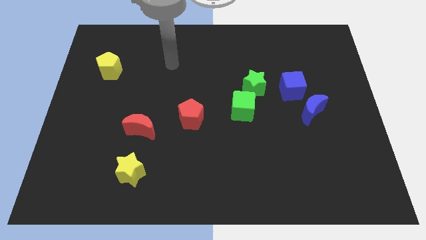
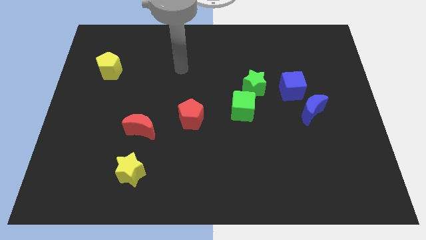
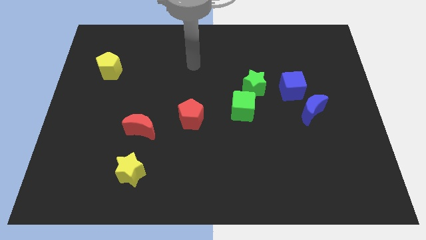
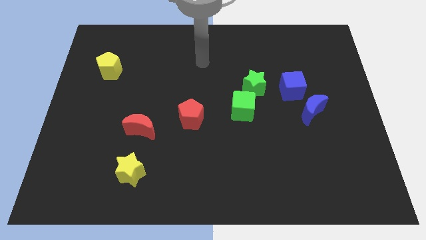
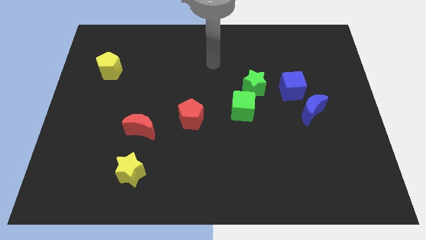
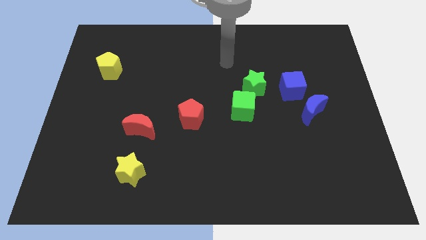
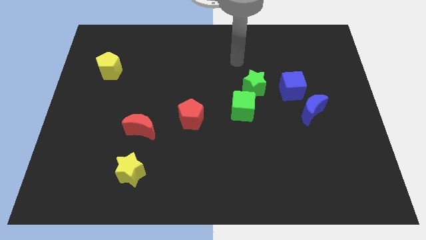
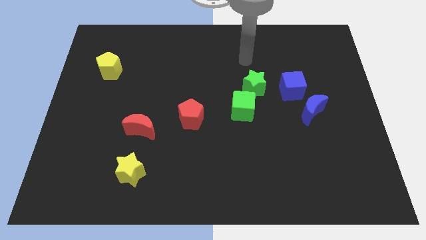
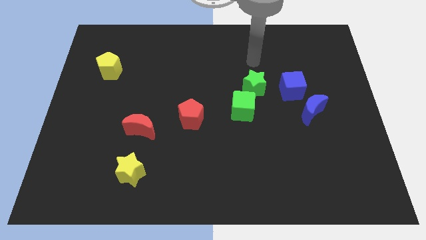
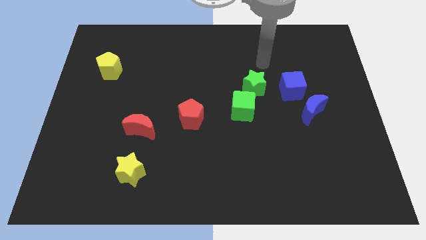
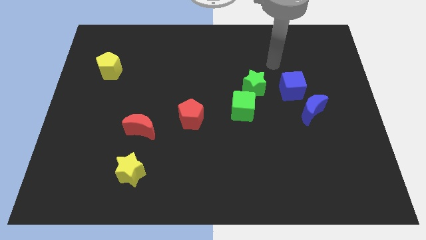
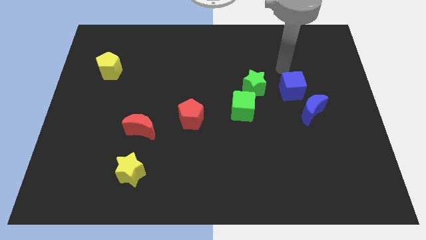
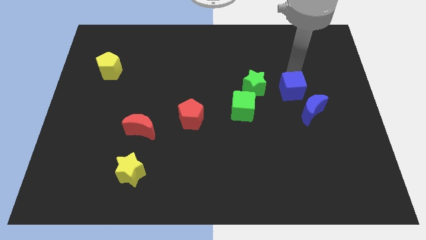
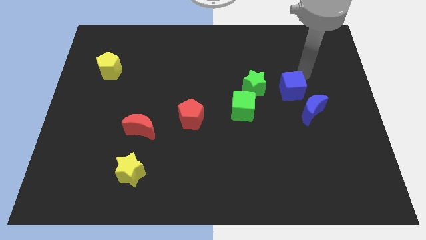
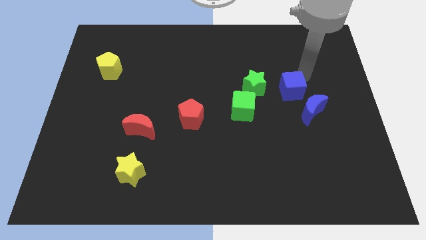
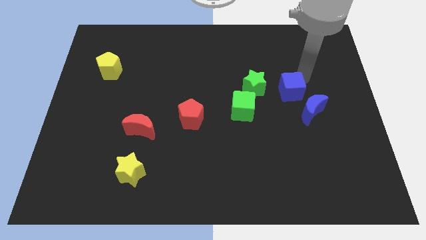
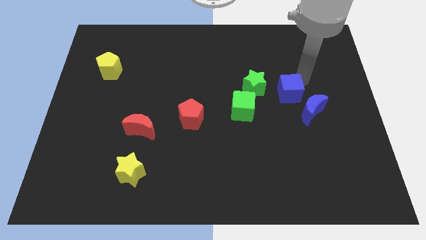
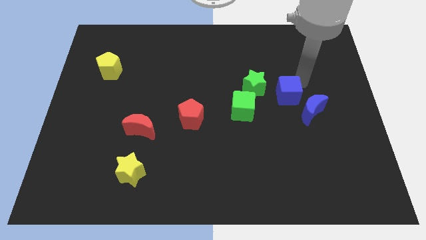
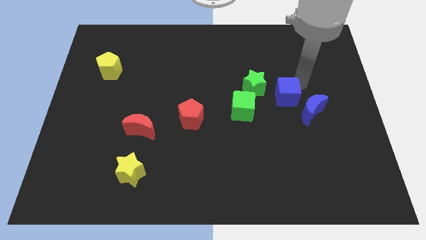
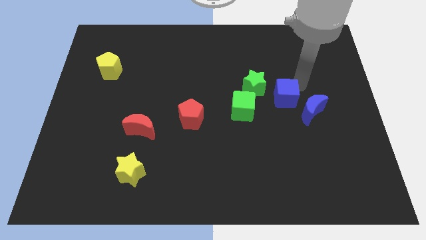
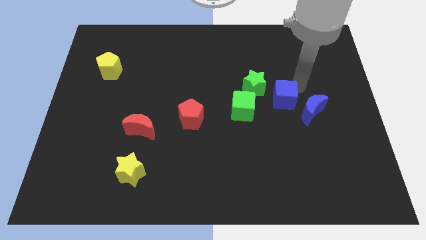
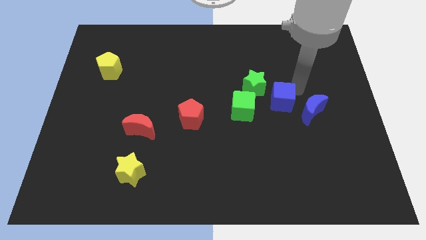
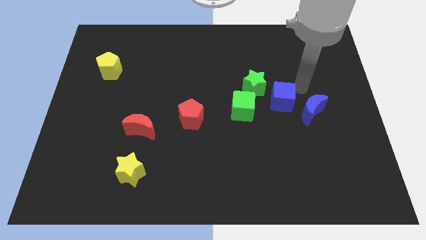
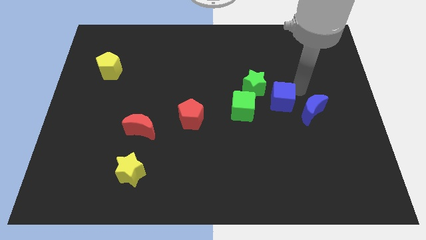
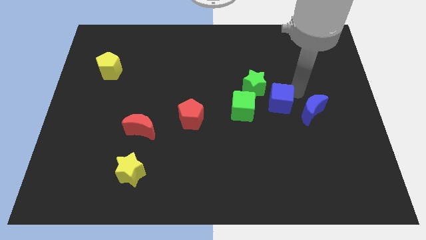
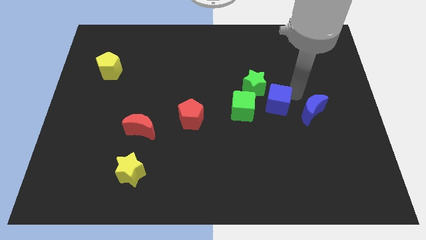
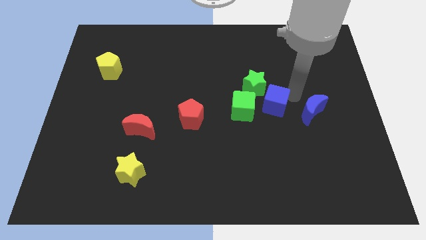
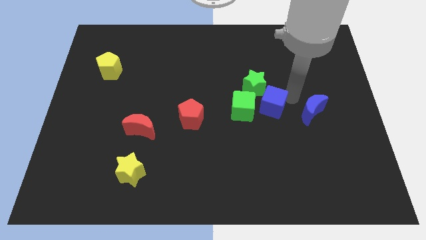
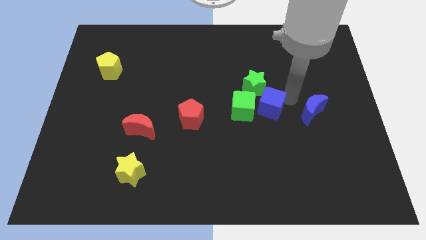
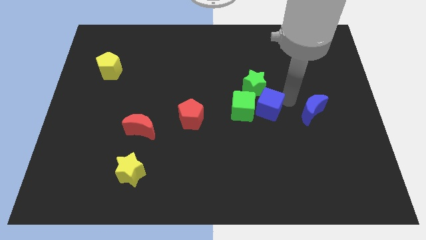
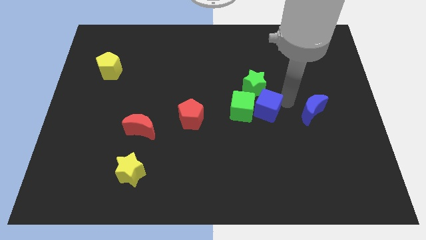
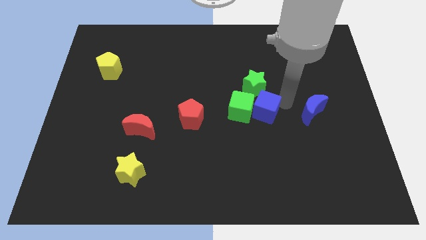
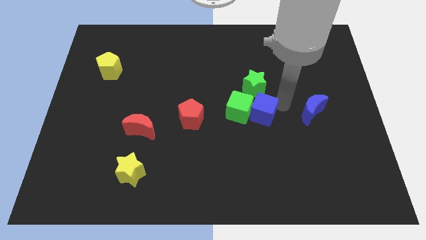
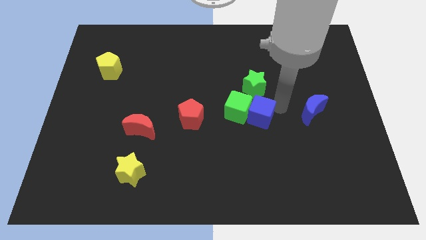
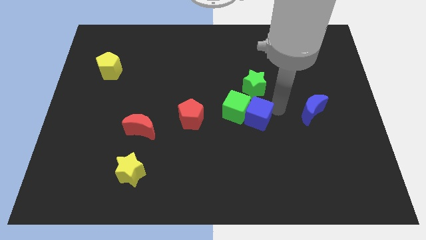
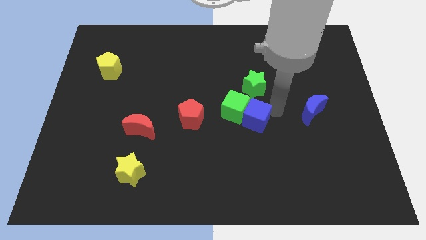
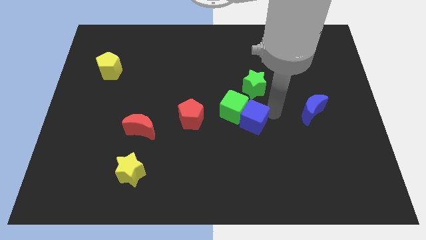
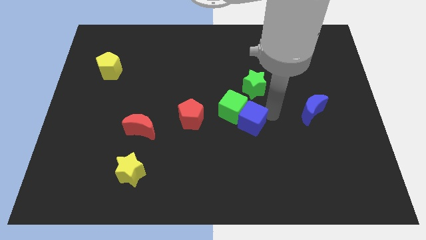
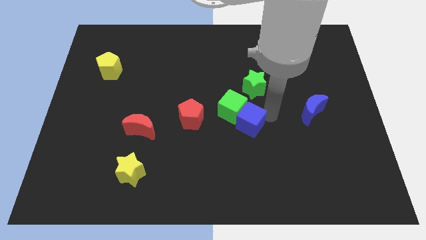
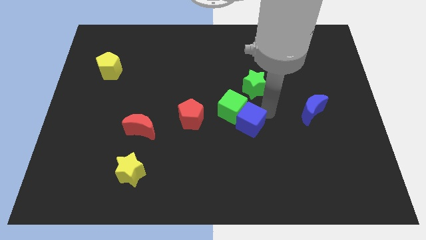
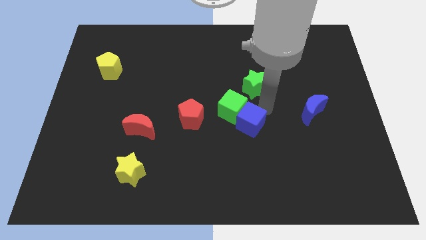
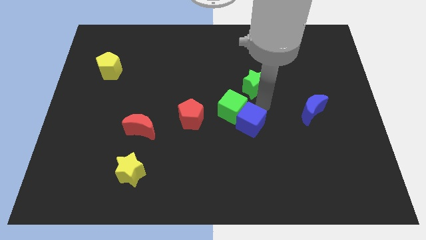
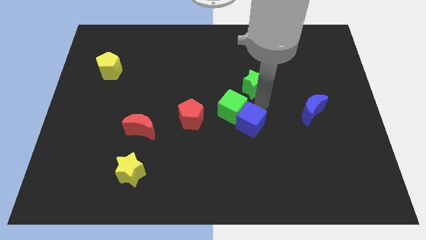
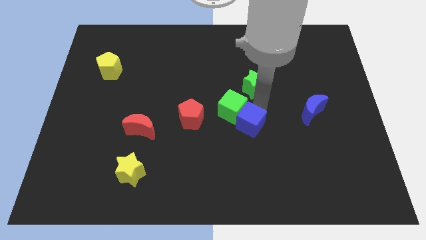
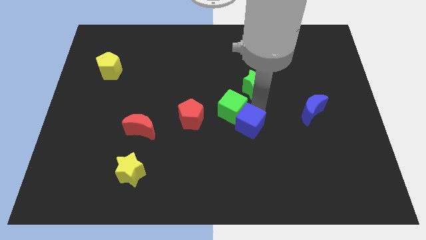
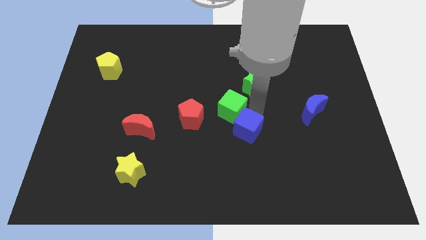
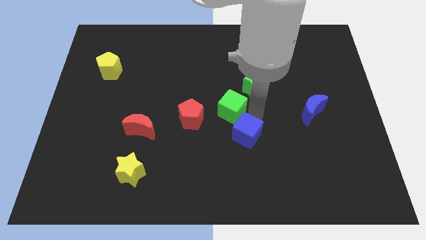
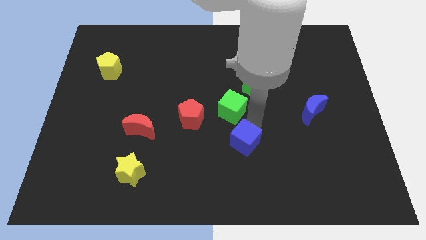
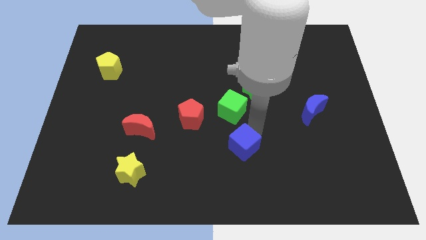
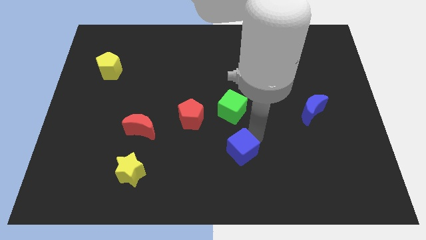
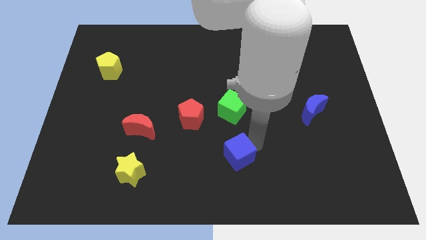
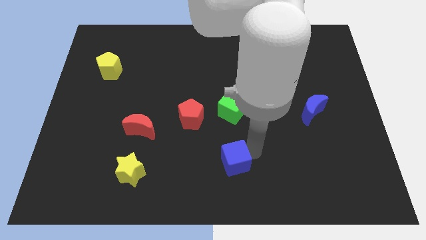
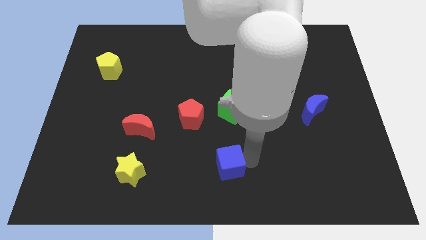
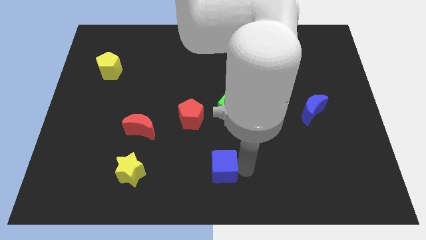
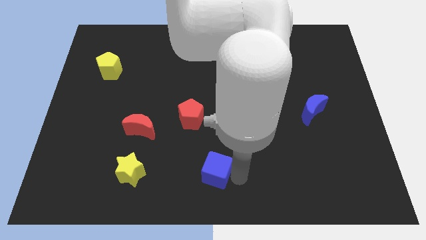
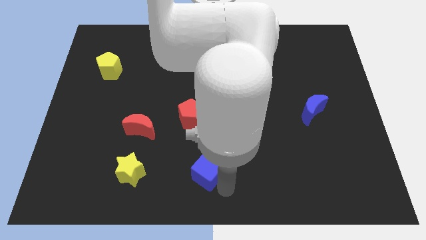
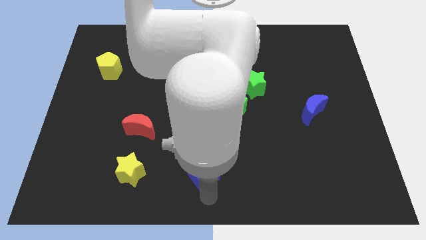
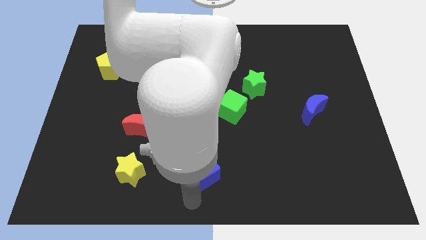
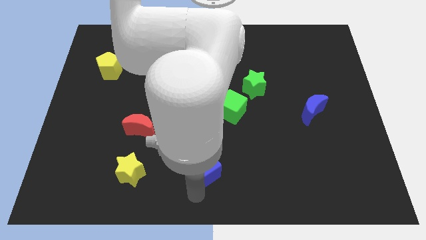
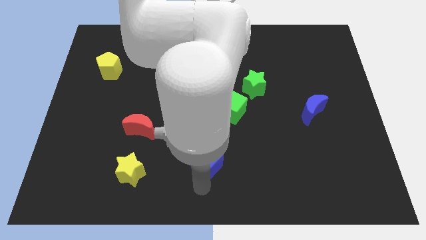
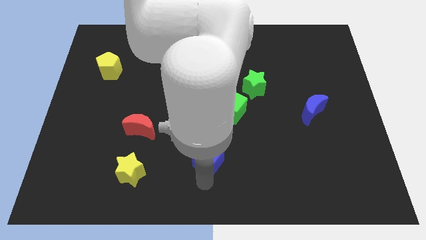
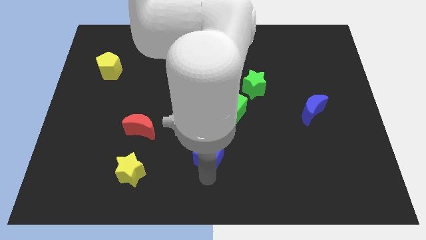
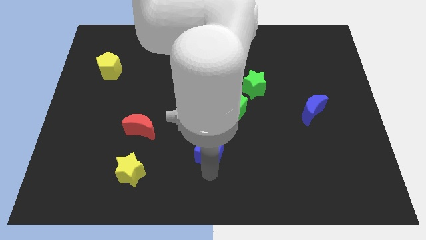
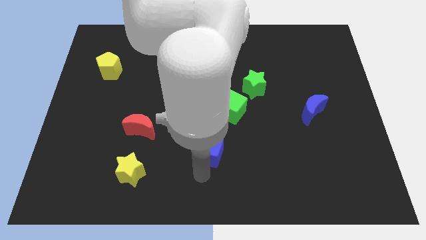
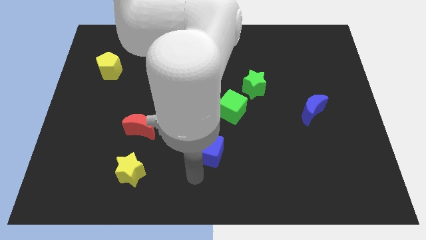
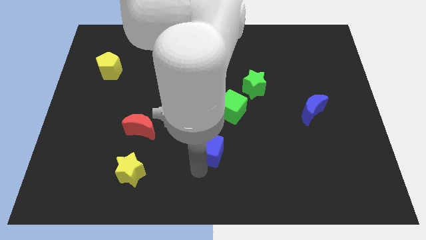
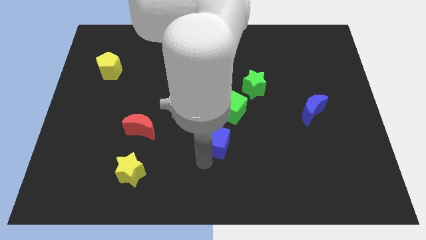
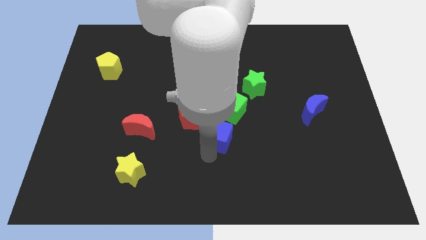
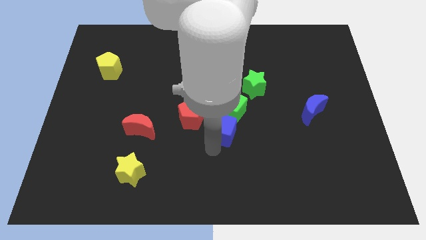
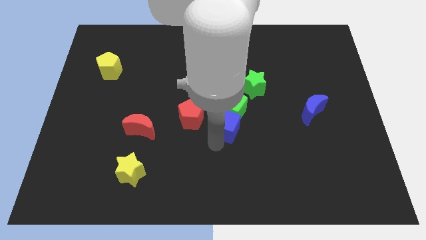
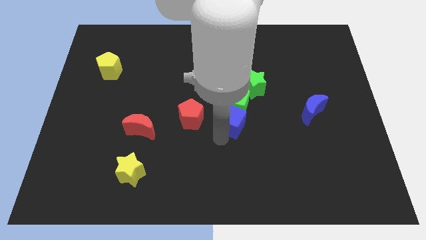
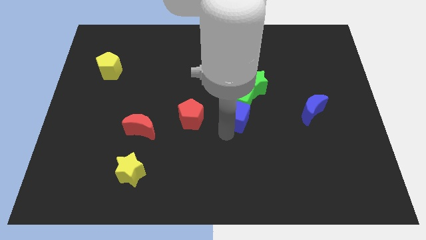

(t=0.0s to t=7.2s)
put the blue cube diagonally down and to the left of the green star
